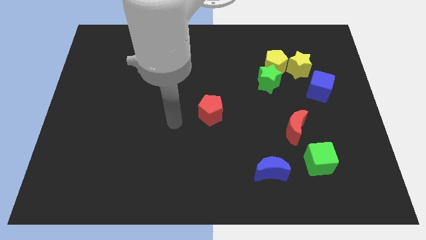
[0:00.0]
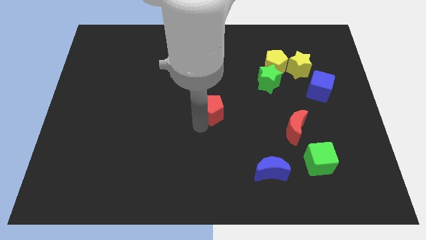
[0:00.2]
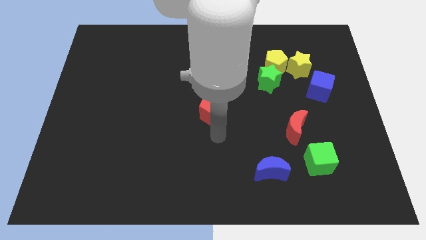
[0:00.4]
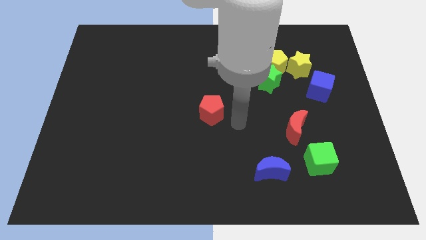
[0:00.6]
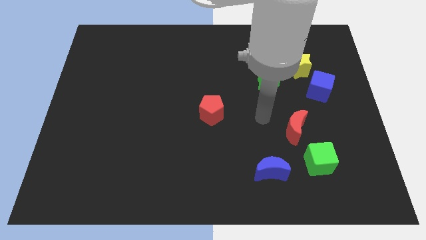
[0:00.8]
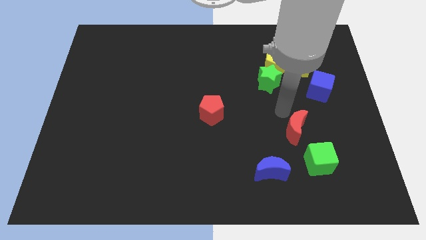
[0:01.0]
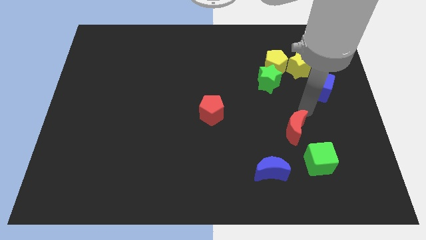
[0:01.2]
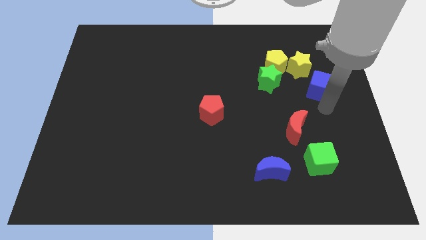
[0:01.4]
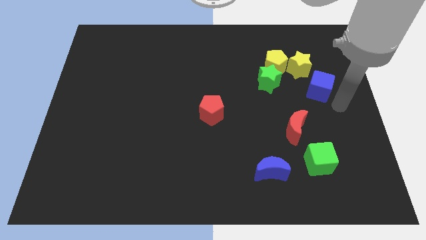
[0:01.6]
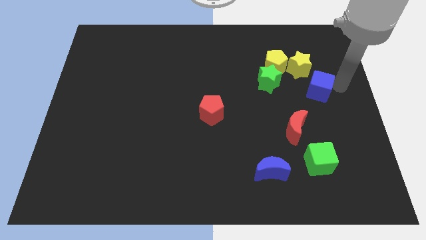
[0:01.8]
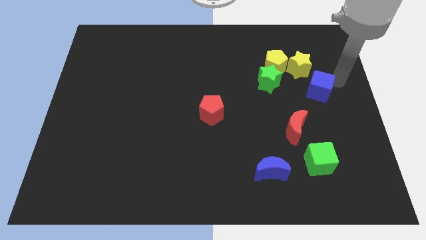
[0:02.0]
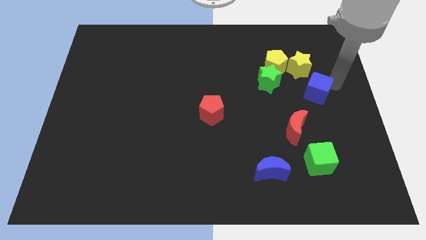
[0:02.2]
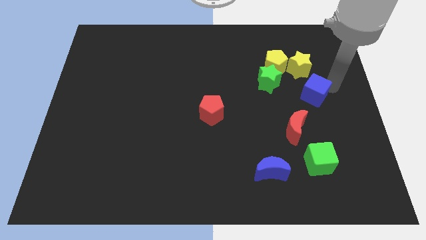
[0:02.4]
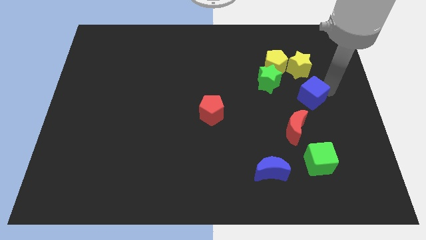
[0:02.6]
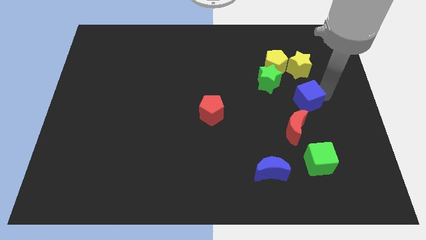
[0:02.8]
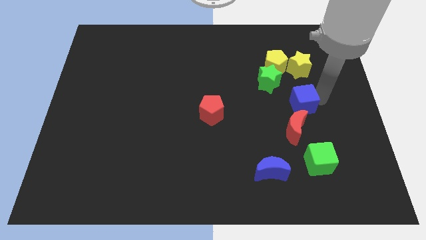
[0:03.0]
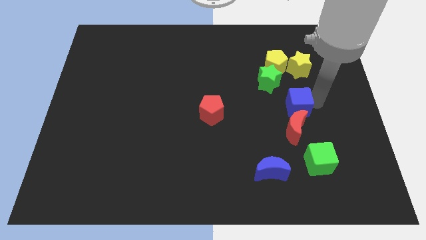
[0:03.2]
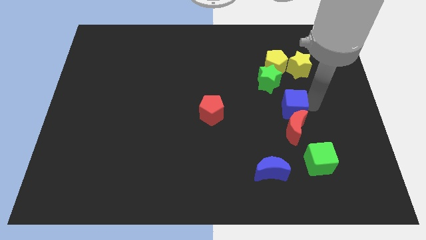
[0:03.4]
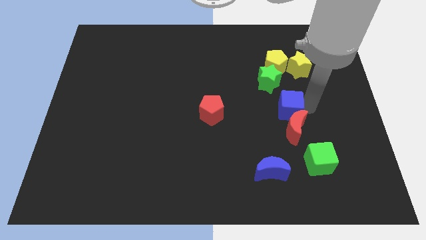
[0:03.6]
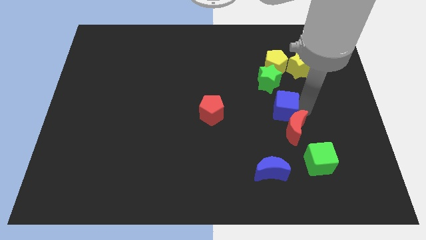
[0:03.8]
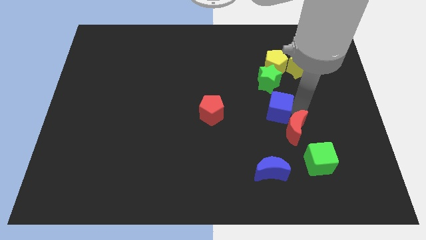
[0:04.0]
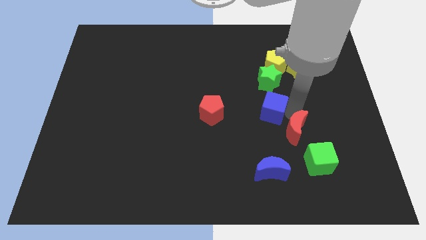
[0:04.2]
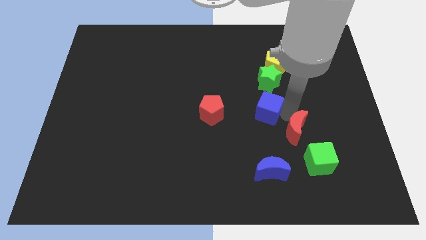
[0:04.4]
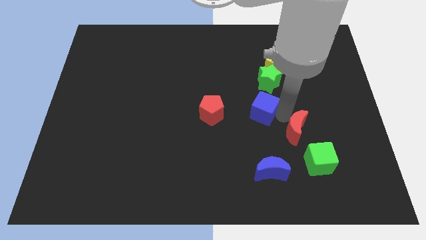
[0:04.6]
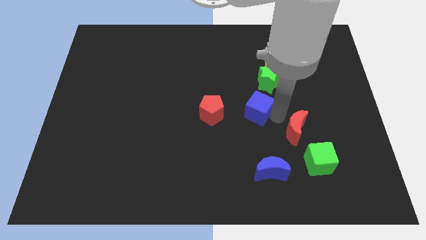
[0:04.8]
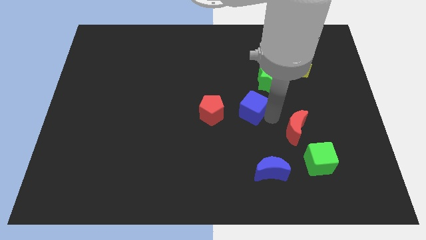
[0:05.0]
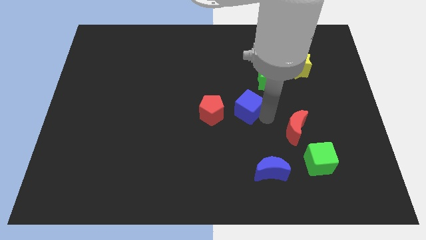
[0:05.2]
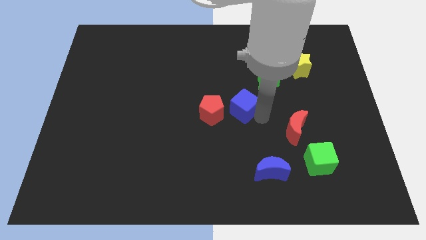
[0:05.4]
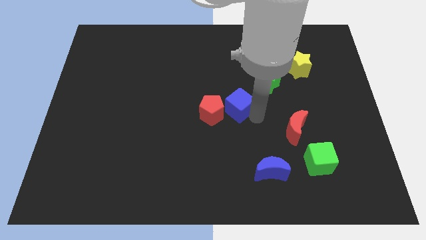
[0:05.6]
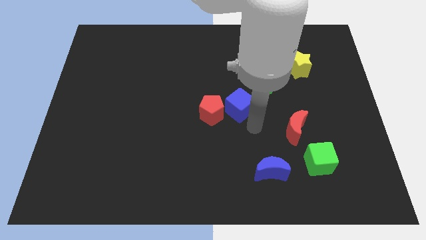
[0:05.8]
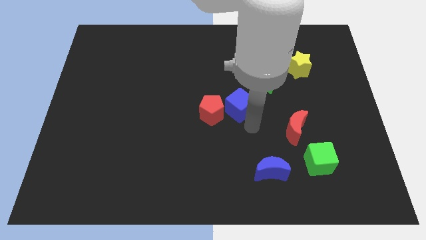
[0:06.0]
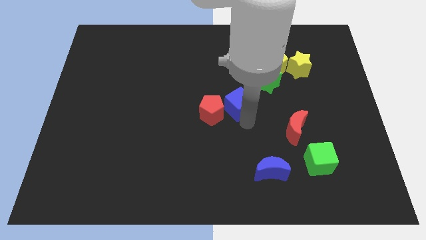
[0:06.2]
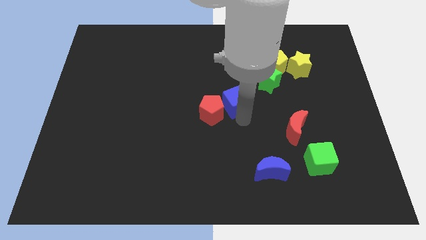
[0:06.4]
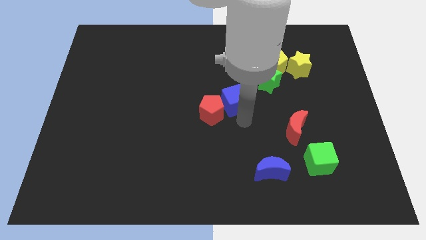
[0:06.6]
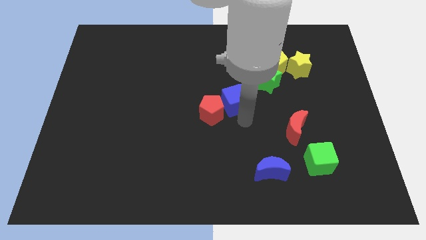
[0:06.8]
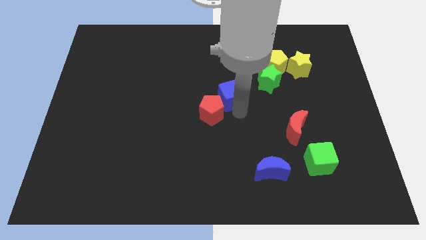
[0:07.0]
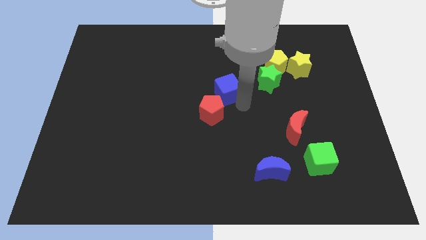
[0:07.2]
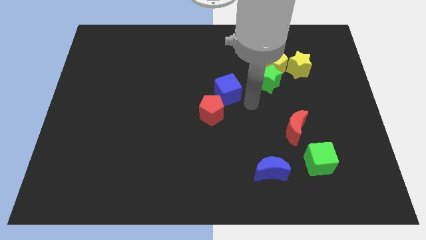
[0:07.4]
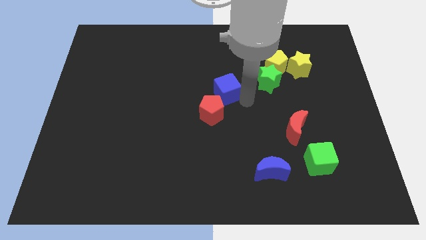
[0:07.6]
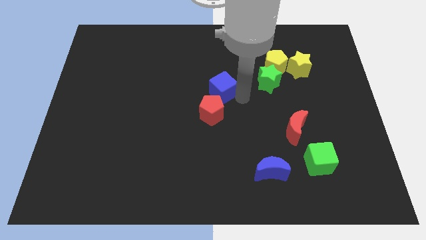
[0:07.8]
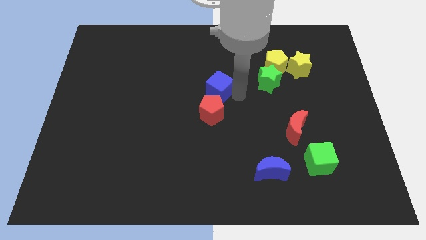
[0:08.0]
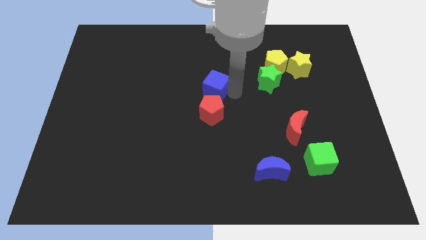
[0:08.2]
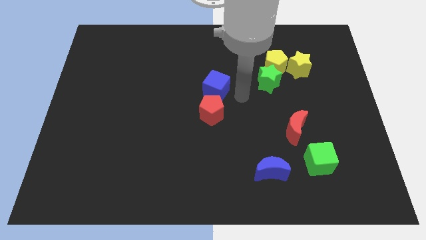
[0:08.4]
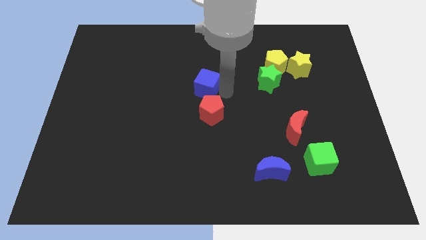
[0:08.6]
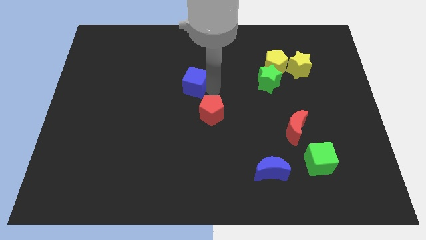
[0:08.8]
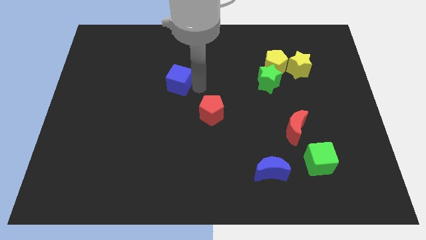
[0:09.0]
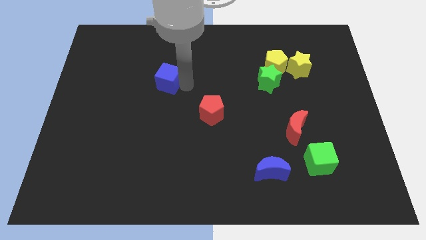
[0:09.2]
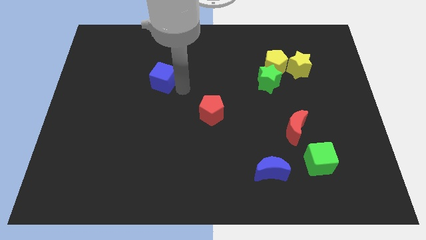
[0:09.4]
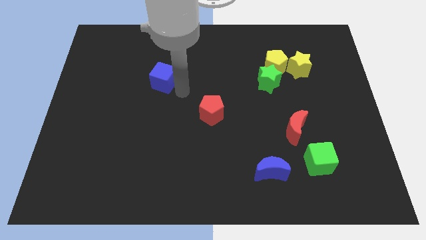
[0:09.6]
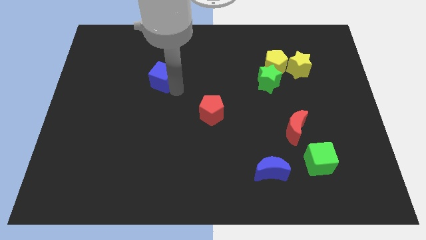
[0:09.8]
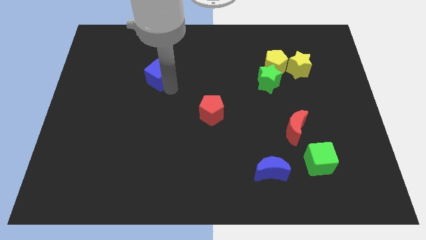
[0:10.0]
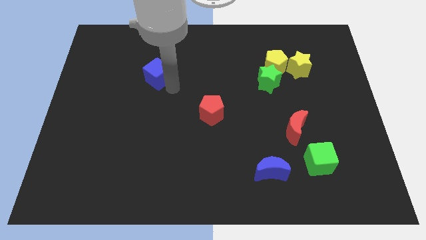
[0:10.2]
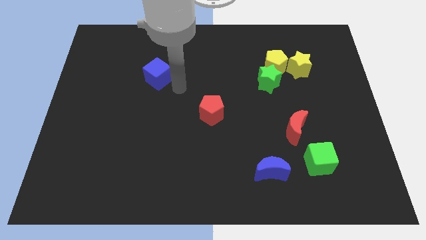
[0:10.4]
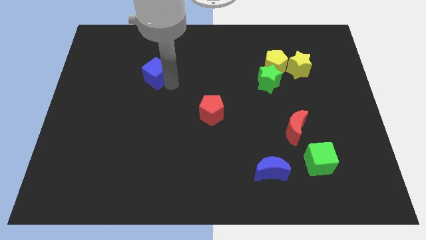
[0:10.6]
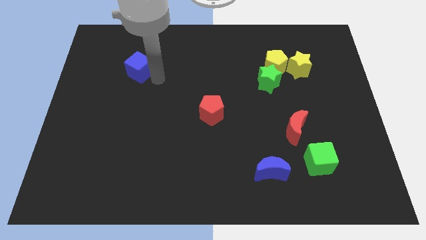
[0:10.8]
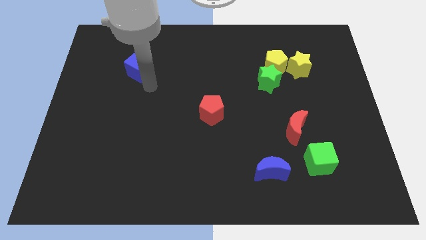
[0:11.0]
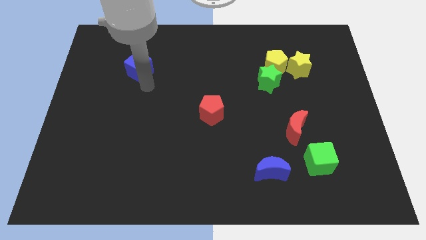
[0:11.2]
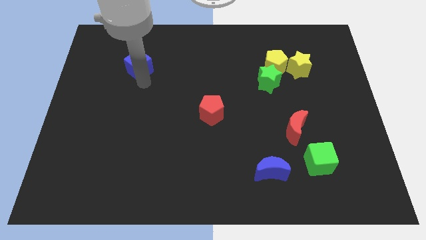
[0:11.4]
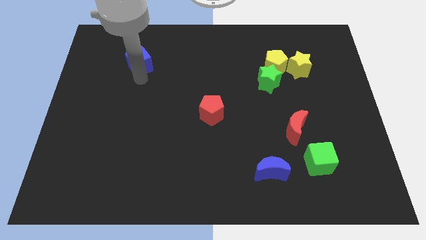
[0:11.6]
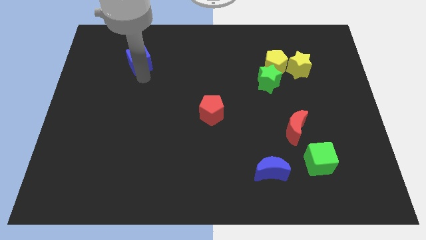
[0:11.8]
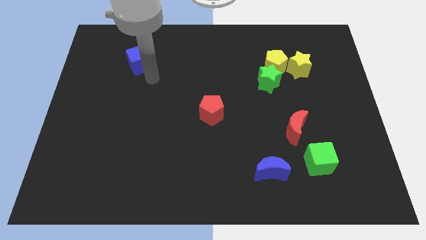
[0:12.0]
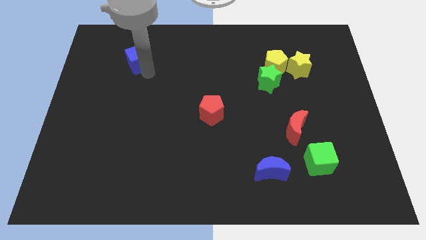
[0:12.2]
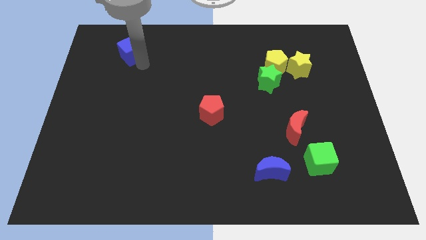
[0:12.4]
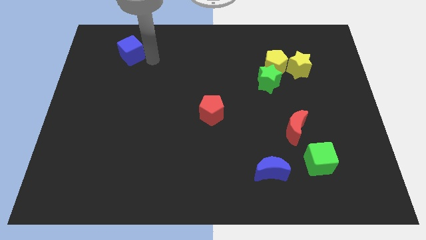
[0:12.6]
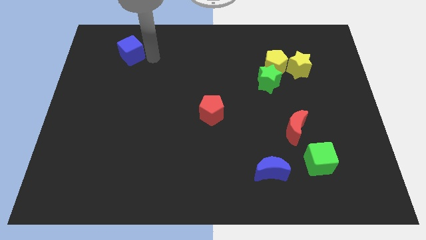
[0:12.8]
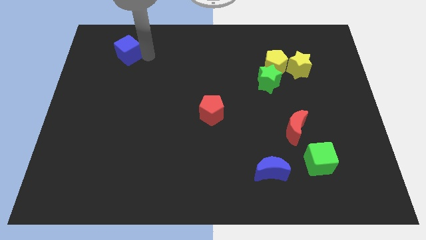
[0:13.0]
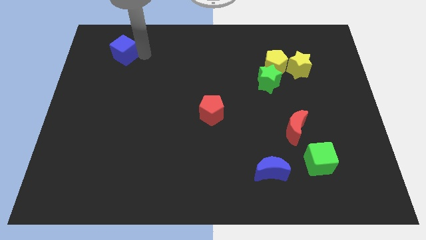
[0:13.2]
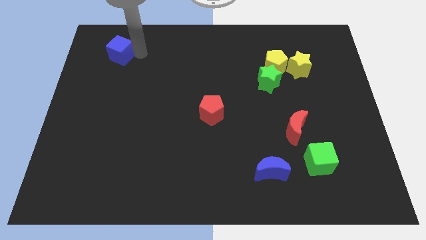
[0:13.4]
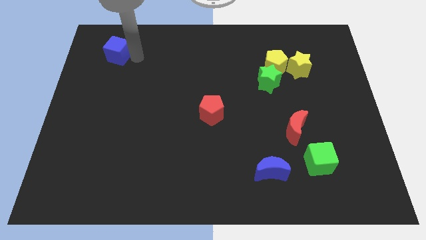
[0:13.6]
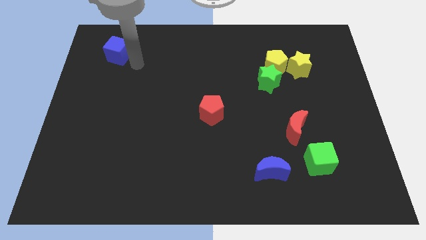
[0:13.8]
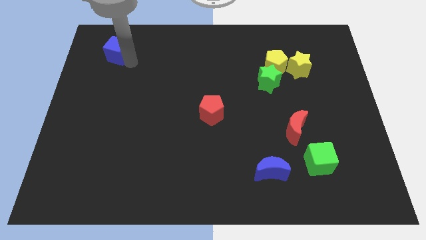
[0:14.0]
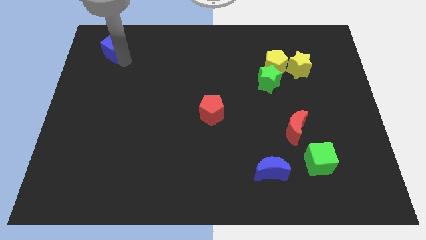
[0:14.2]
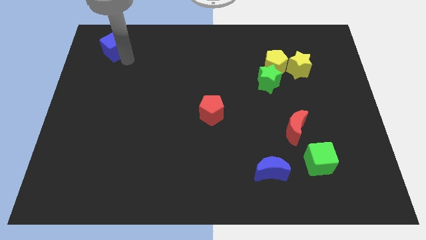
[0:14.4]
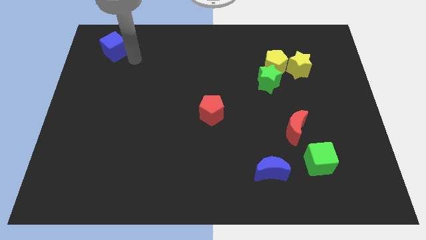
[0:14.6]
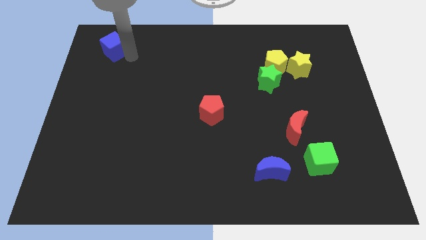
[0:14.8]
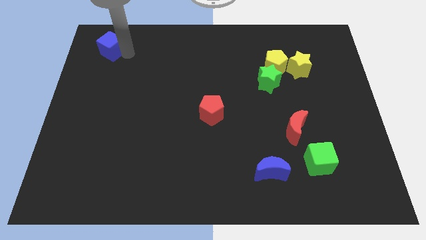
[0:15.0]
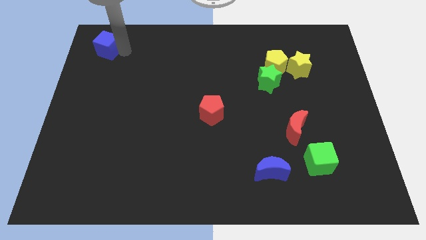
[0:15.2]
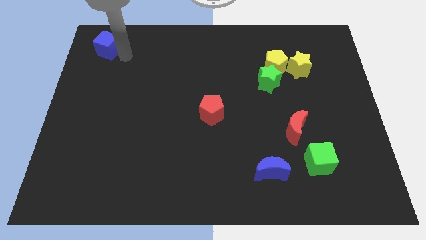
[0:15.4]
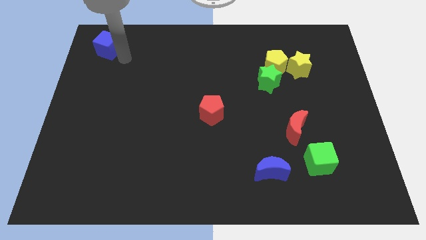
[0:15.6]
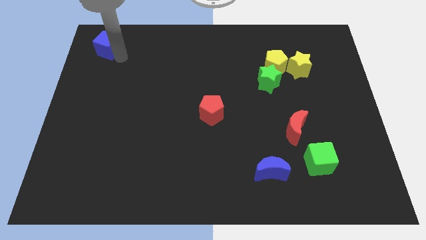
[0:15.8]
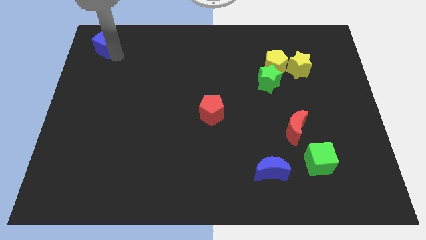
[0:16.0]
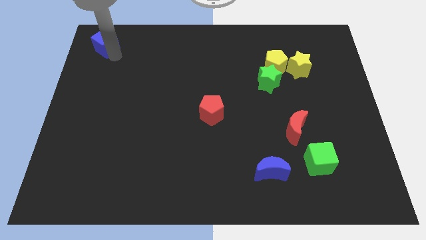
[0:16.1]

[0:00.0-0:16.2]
slide the blue cube to the upper left corner
